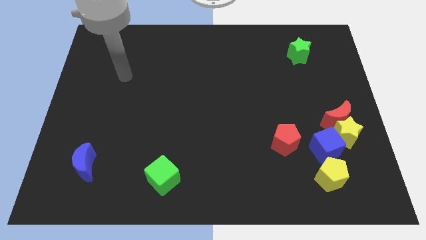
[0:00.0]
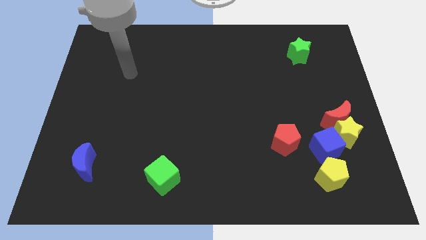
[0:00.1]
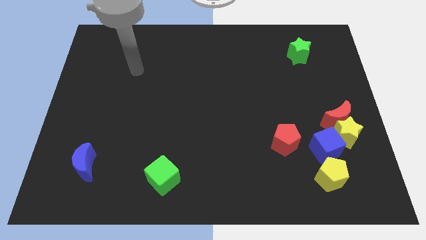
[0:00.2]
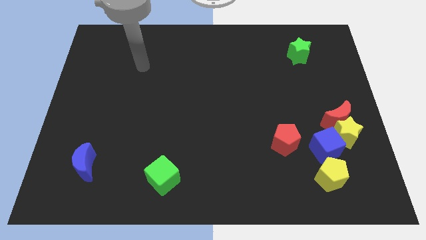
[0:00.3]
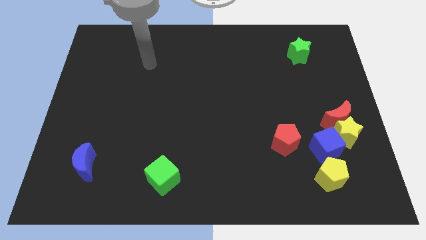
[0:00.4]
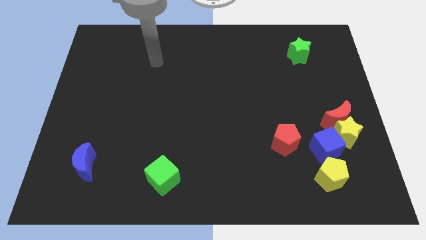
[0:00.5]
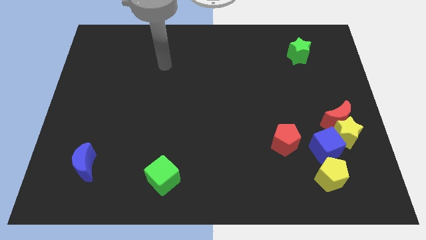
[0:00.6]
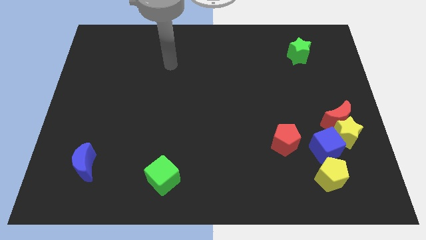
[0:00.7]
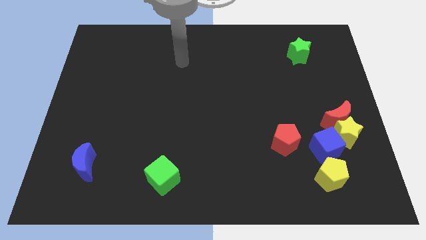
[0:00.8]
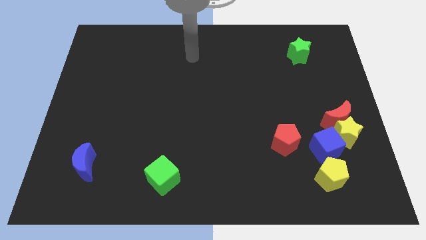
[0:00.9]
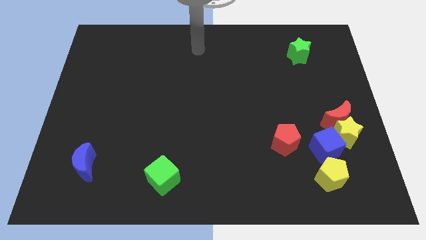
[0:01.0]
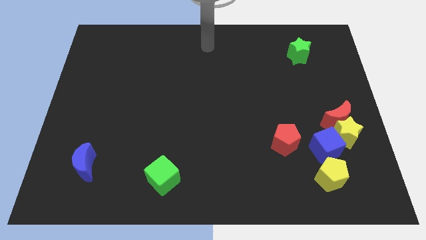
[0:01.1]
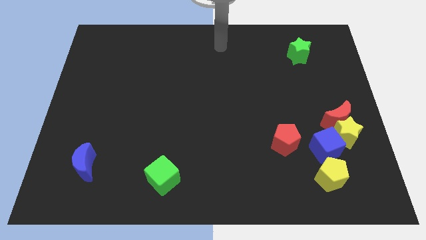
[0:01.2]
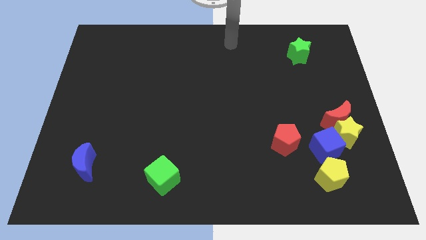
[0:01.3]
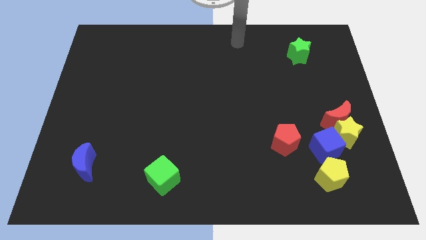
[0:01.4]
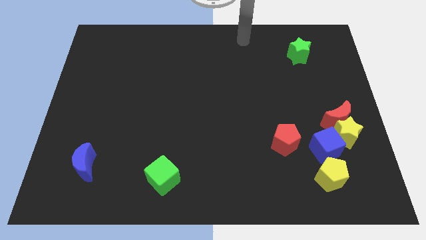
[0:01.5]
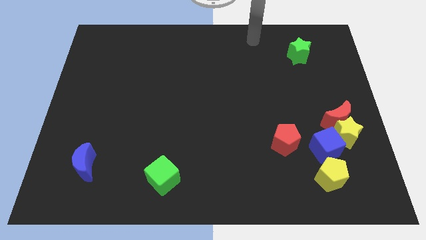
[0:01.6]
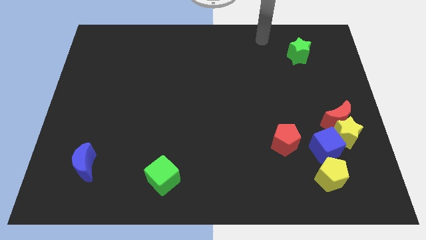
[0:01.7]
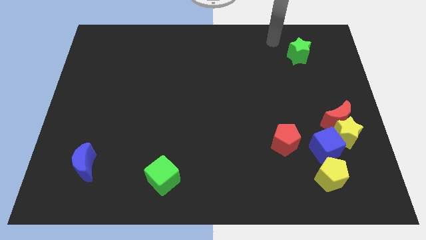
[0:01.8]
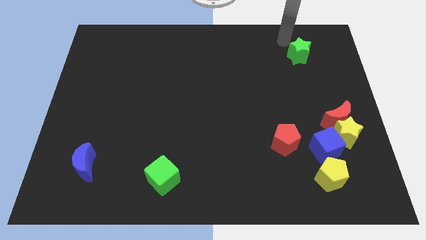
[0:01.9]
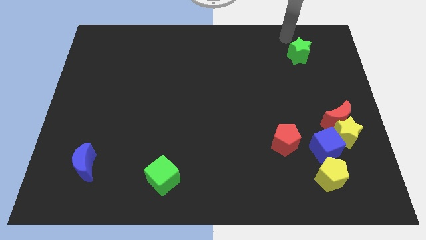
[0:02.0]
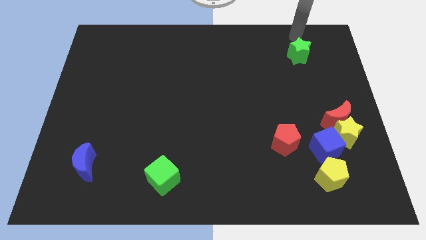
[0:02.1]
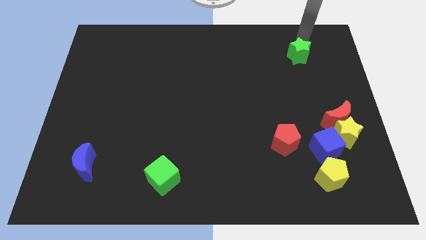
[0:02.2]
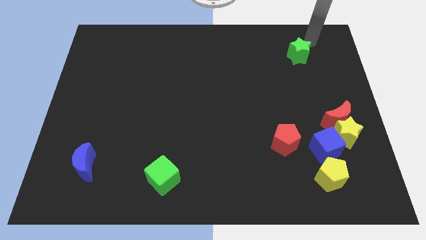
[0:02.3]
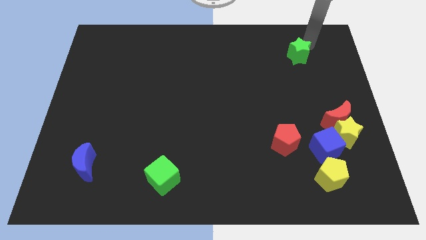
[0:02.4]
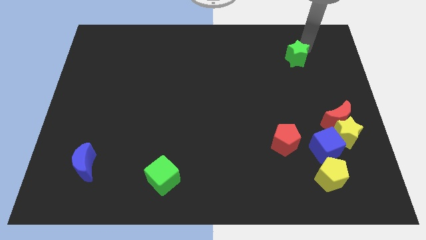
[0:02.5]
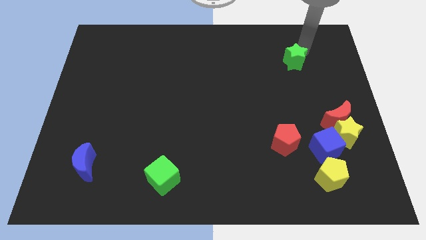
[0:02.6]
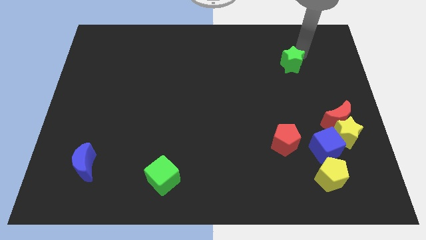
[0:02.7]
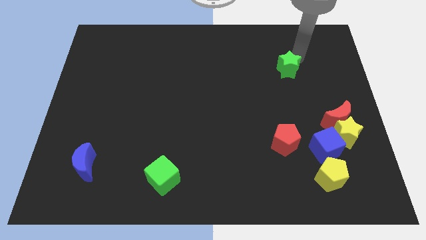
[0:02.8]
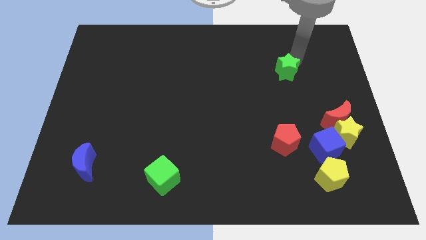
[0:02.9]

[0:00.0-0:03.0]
slightly push the green star diagonally downwards and to the left

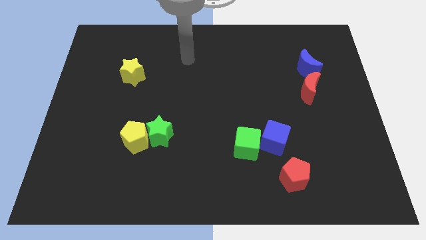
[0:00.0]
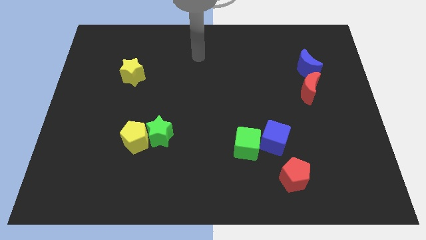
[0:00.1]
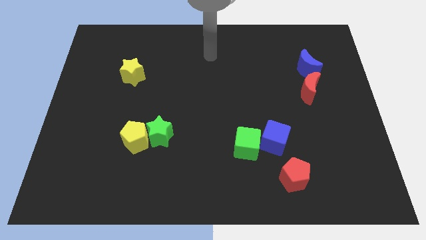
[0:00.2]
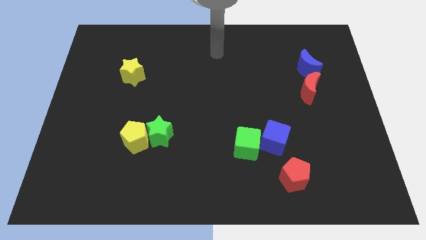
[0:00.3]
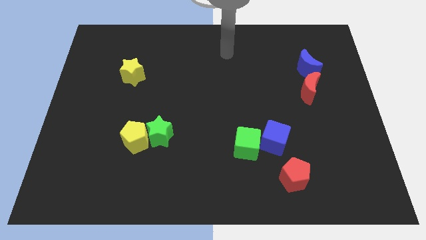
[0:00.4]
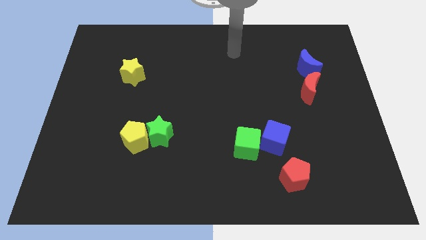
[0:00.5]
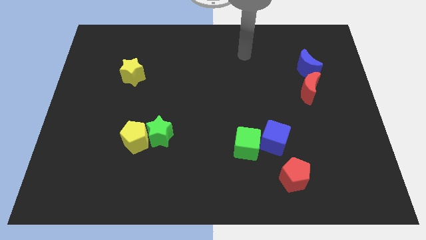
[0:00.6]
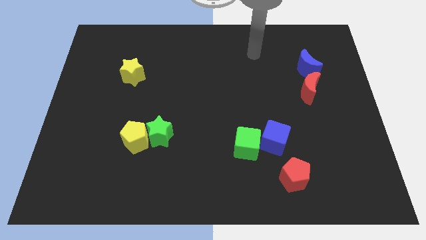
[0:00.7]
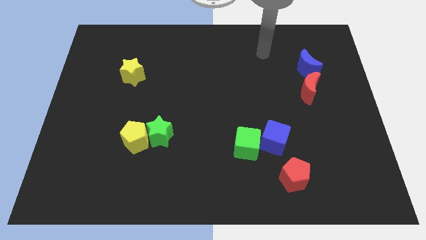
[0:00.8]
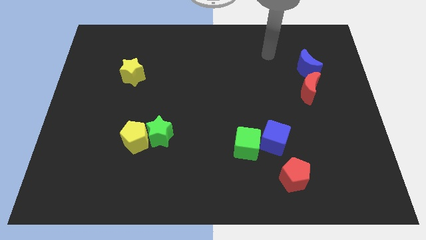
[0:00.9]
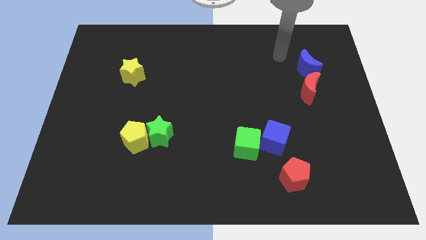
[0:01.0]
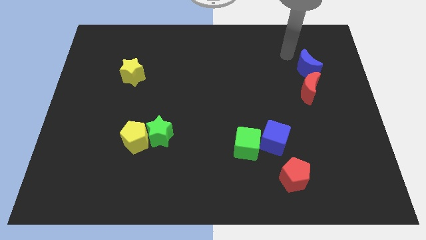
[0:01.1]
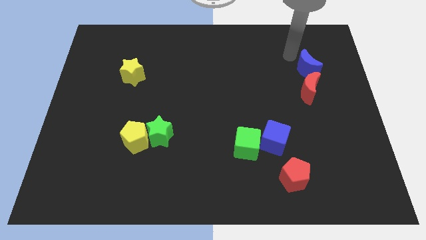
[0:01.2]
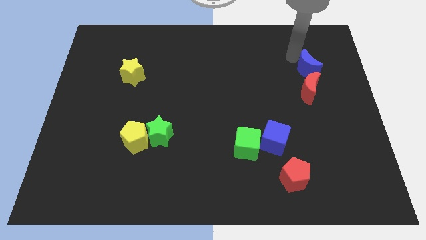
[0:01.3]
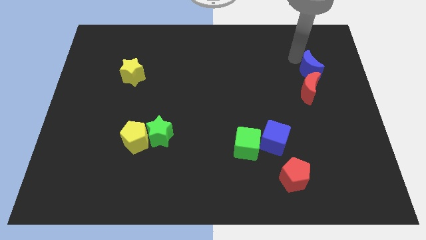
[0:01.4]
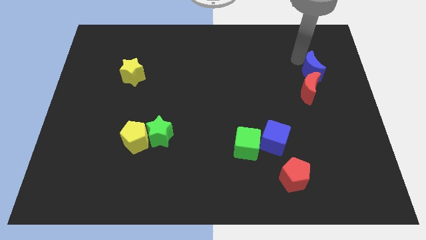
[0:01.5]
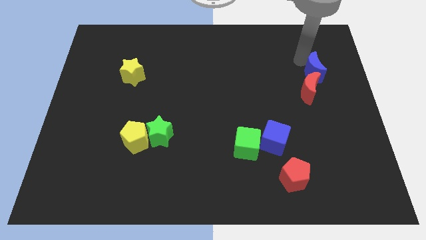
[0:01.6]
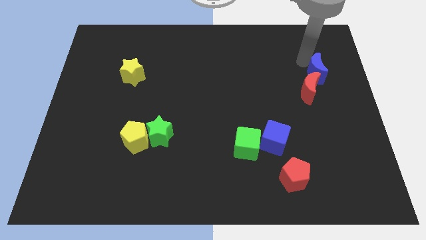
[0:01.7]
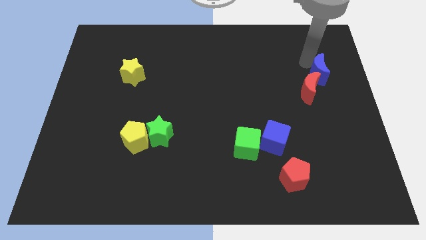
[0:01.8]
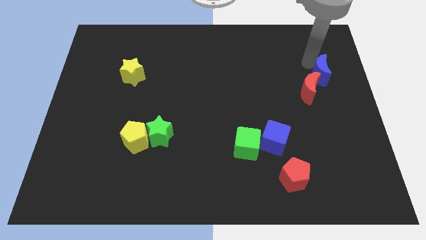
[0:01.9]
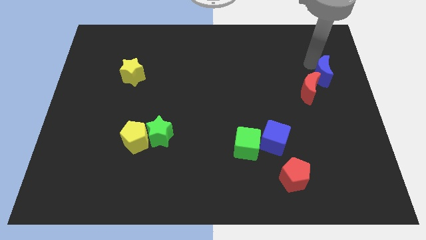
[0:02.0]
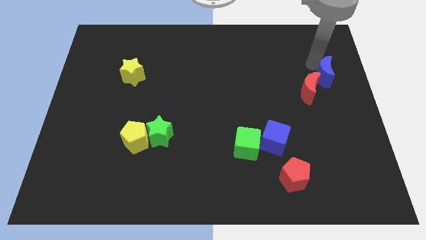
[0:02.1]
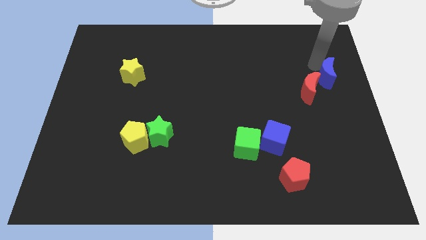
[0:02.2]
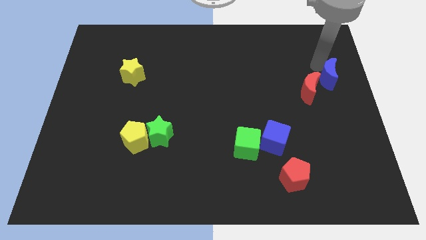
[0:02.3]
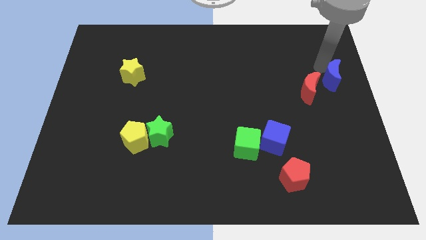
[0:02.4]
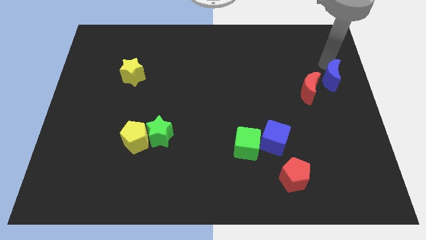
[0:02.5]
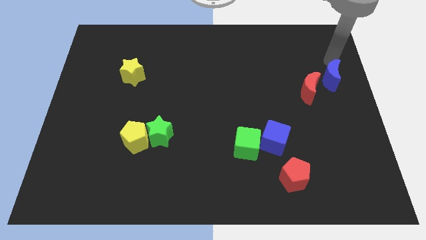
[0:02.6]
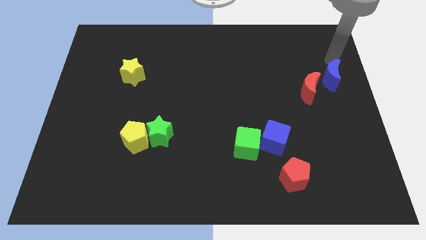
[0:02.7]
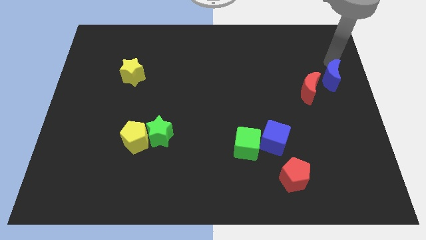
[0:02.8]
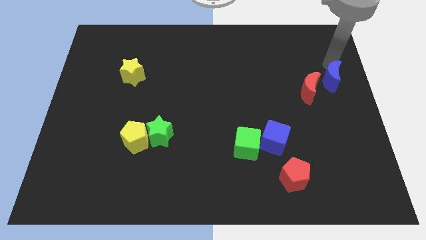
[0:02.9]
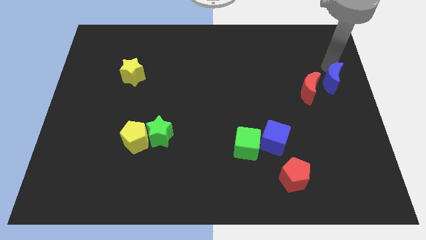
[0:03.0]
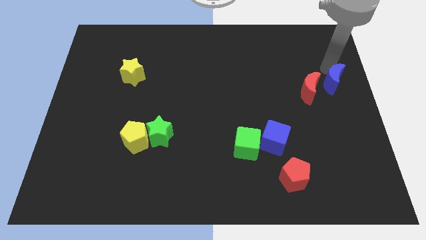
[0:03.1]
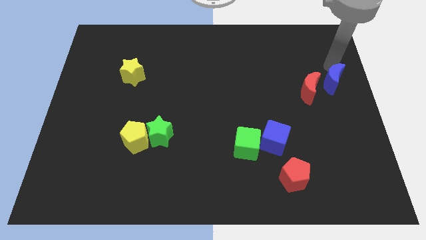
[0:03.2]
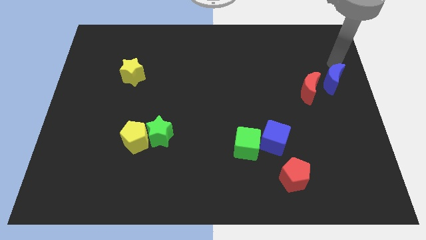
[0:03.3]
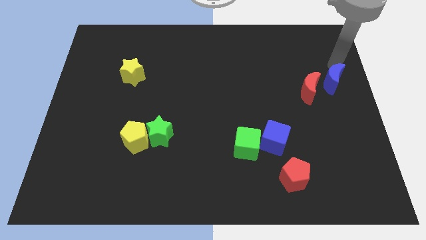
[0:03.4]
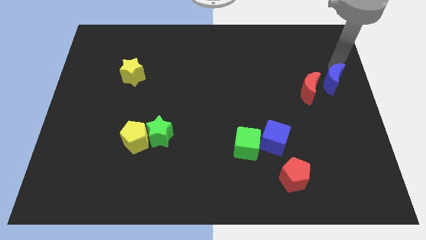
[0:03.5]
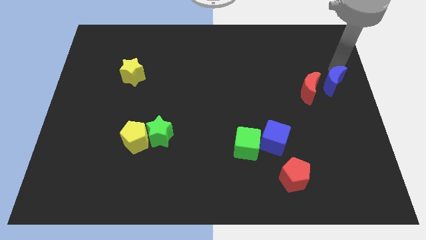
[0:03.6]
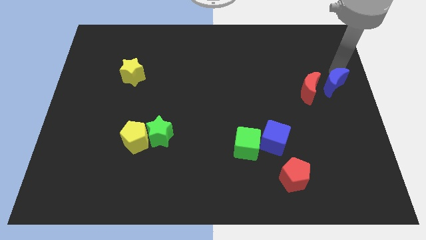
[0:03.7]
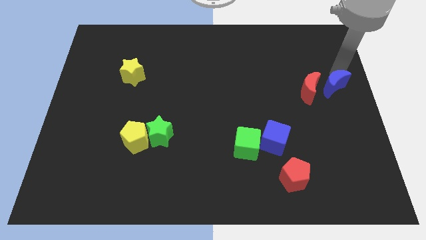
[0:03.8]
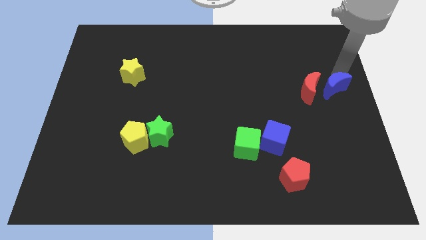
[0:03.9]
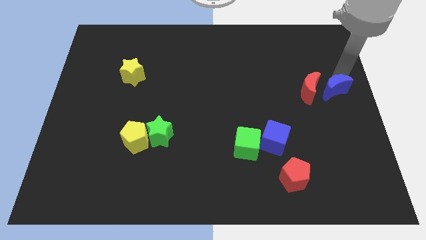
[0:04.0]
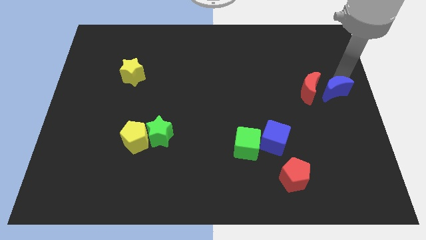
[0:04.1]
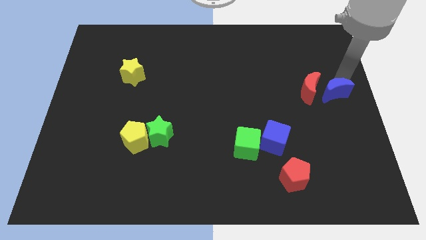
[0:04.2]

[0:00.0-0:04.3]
slightly move the blue moon downwards

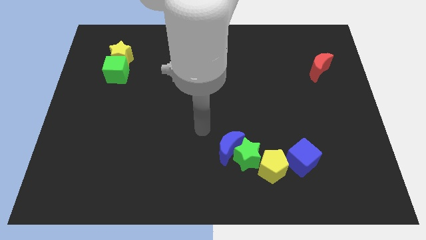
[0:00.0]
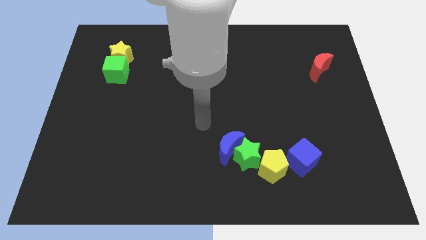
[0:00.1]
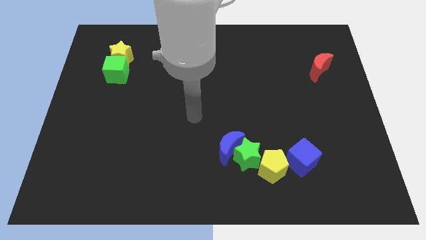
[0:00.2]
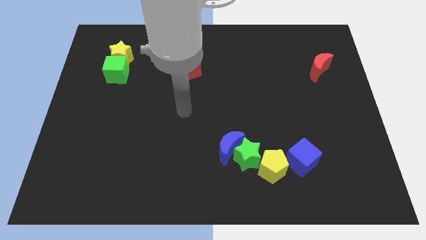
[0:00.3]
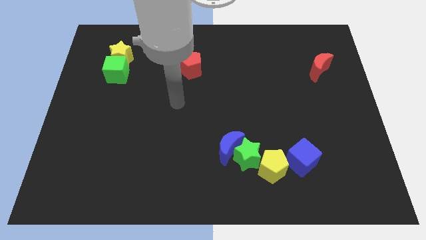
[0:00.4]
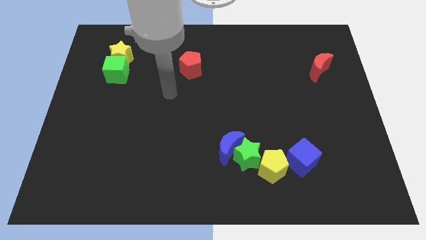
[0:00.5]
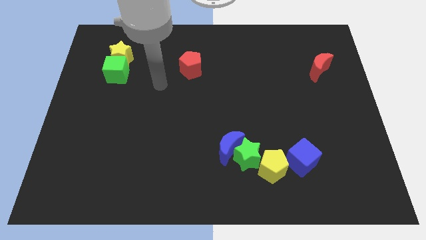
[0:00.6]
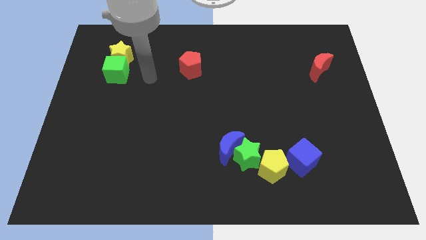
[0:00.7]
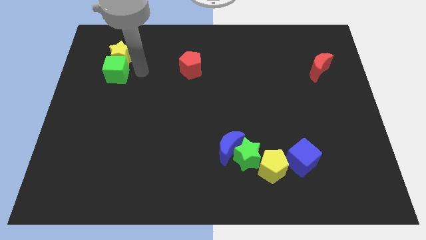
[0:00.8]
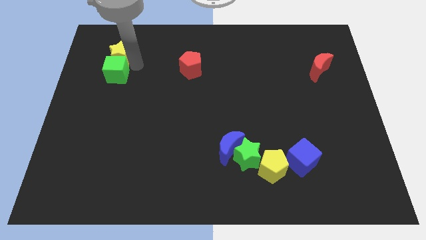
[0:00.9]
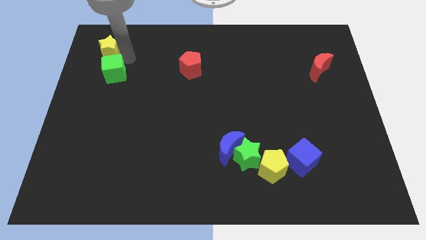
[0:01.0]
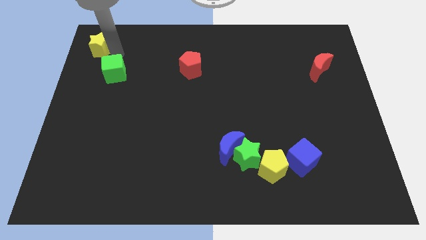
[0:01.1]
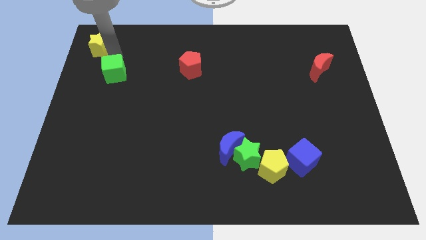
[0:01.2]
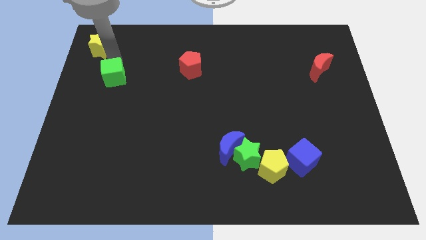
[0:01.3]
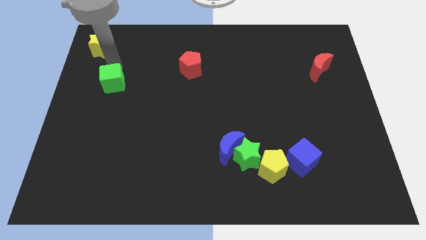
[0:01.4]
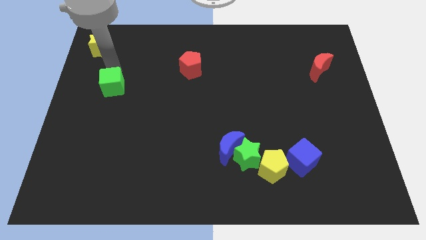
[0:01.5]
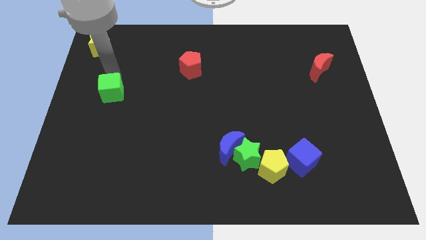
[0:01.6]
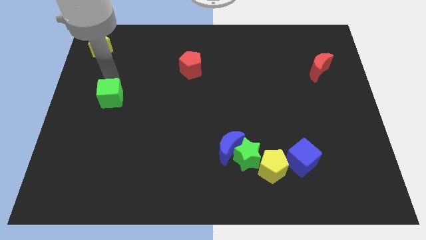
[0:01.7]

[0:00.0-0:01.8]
move the green cube somewhat downwards
